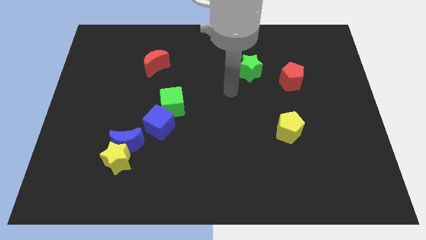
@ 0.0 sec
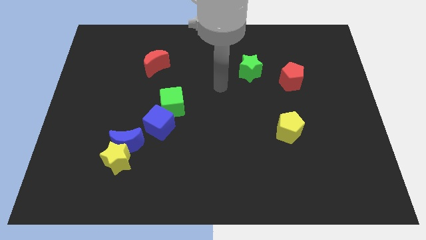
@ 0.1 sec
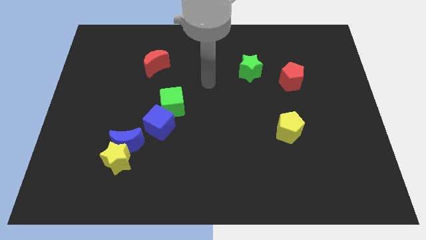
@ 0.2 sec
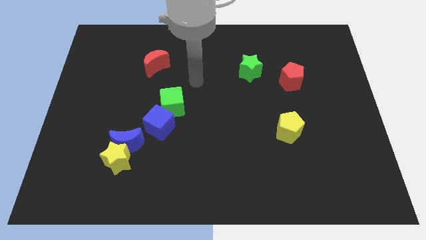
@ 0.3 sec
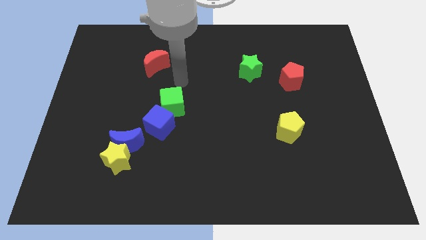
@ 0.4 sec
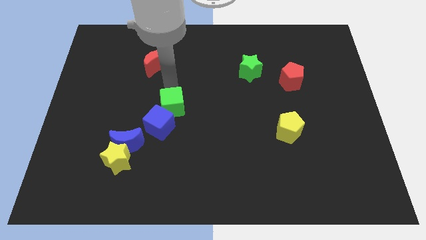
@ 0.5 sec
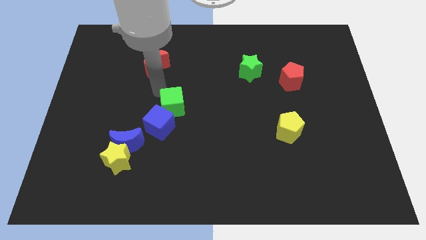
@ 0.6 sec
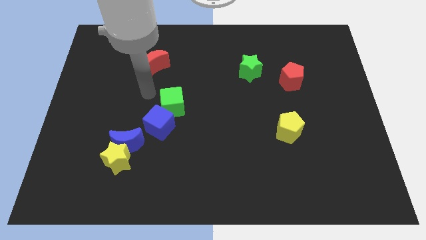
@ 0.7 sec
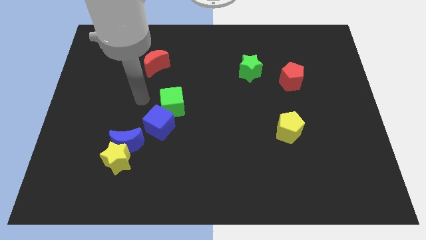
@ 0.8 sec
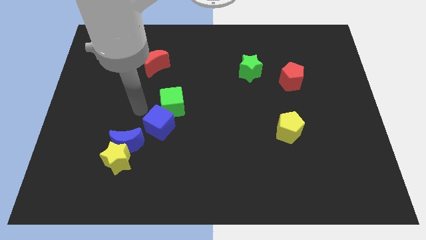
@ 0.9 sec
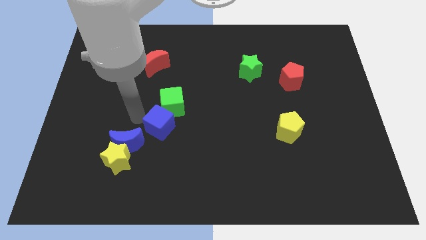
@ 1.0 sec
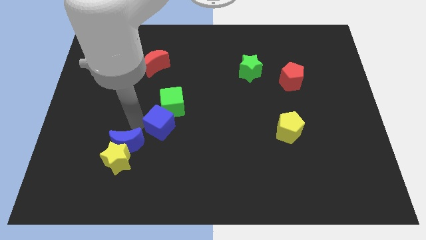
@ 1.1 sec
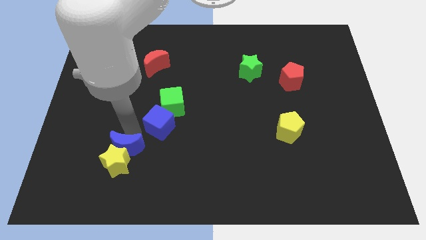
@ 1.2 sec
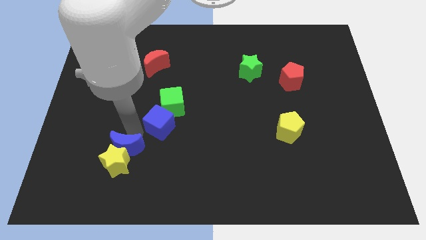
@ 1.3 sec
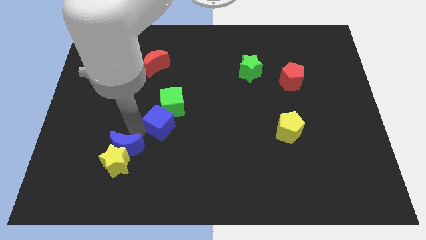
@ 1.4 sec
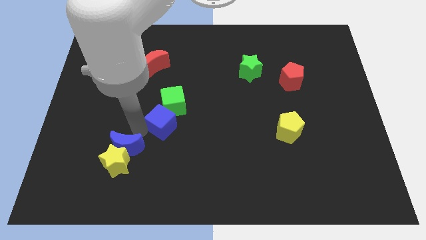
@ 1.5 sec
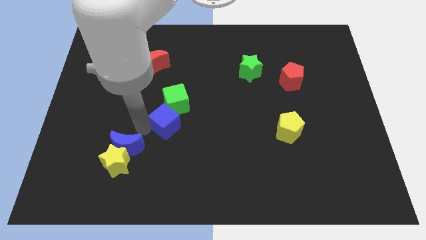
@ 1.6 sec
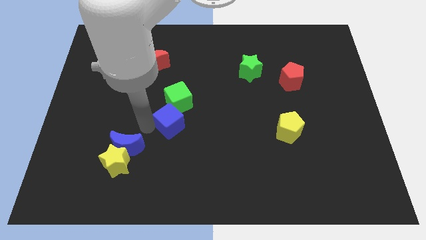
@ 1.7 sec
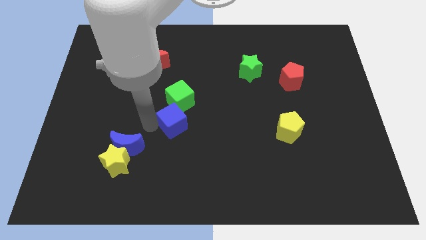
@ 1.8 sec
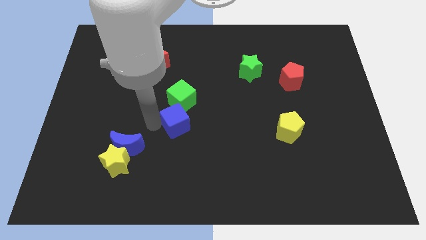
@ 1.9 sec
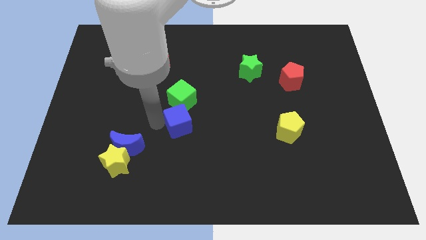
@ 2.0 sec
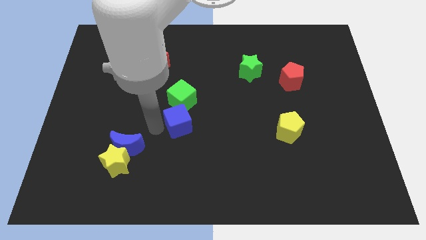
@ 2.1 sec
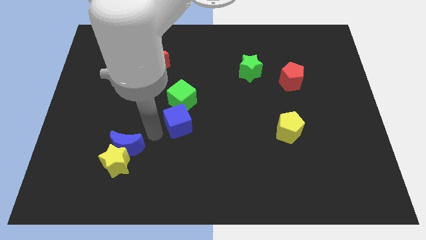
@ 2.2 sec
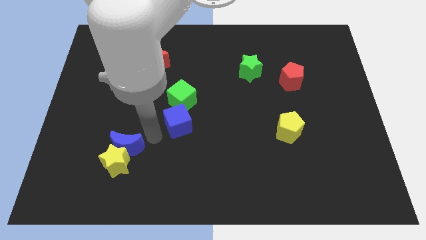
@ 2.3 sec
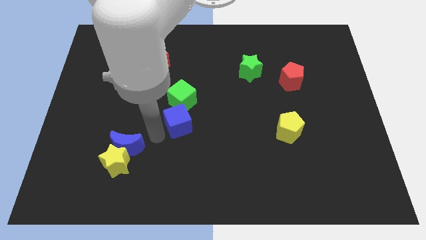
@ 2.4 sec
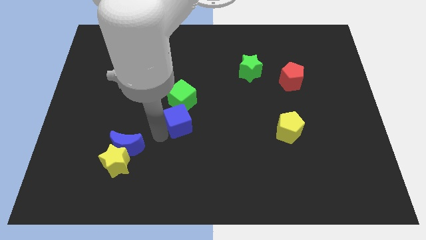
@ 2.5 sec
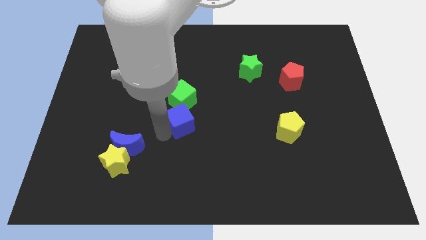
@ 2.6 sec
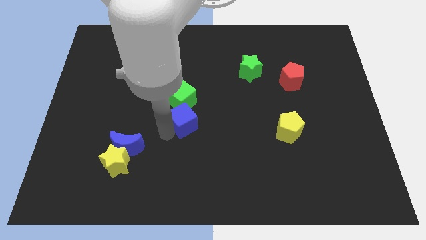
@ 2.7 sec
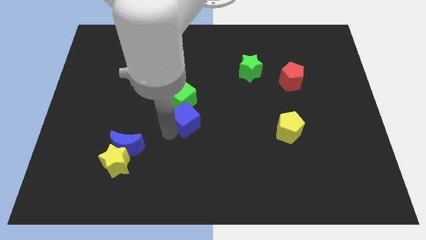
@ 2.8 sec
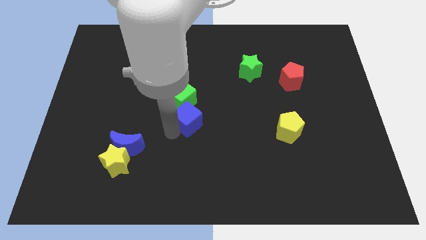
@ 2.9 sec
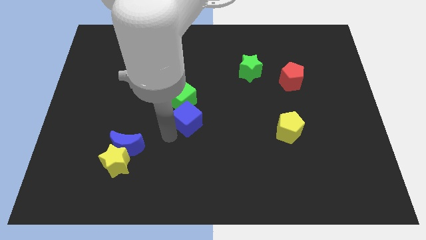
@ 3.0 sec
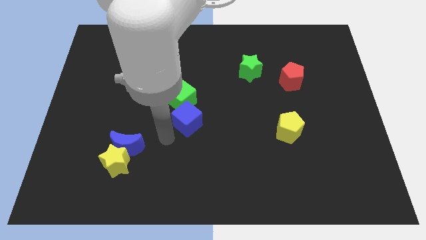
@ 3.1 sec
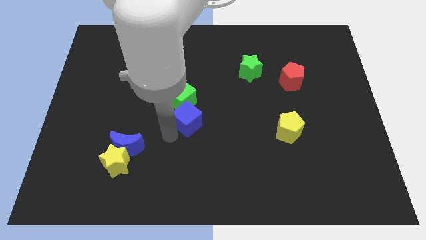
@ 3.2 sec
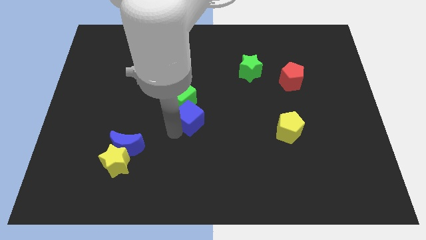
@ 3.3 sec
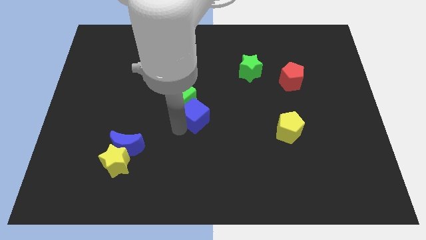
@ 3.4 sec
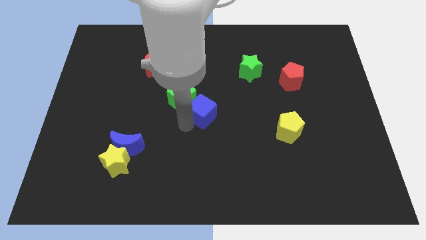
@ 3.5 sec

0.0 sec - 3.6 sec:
push the blue cube diagonally up and right a little bit

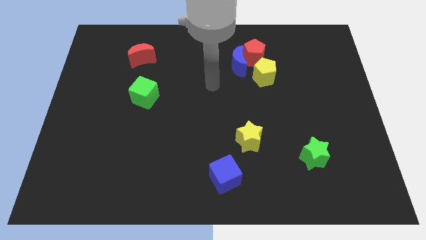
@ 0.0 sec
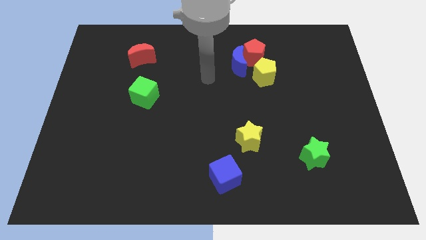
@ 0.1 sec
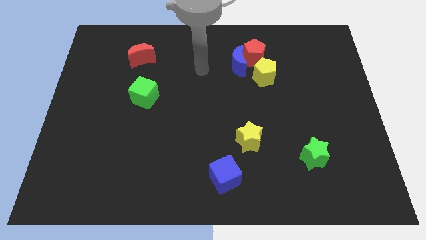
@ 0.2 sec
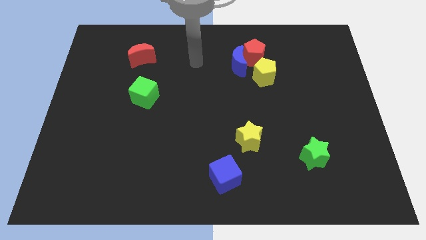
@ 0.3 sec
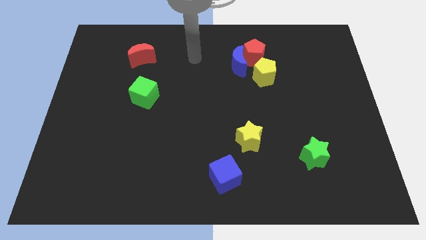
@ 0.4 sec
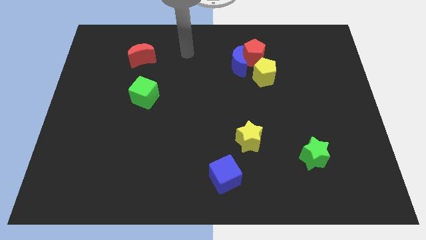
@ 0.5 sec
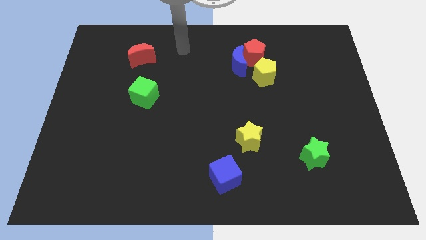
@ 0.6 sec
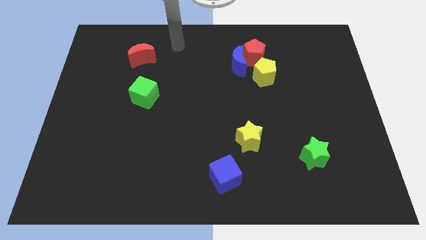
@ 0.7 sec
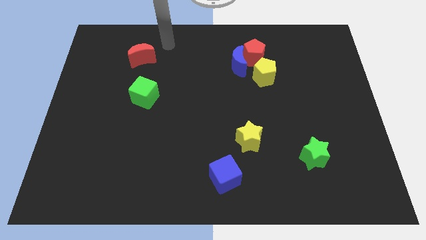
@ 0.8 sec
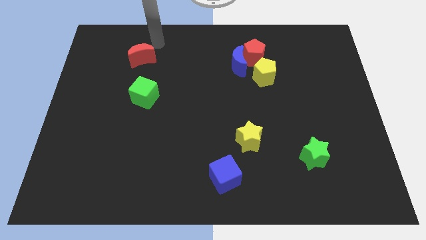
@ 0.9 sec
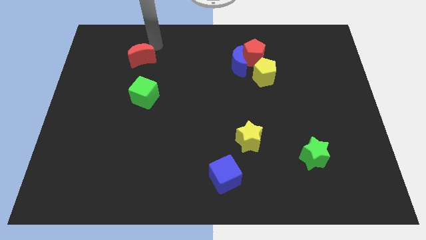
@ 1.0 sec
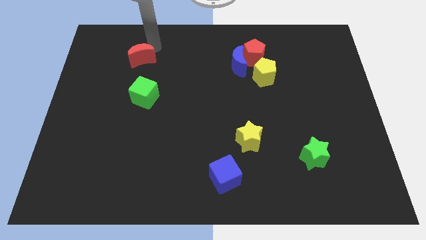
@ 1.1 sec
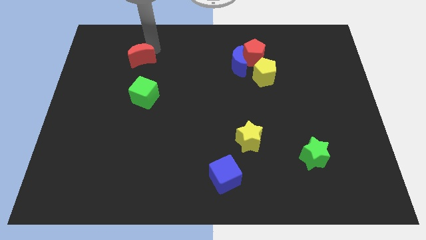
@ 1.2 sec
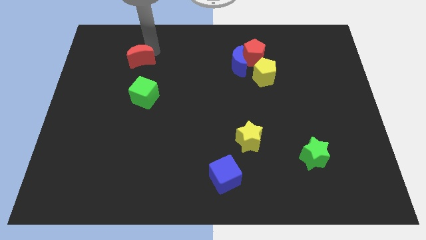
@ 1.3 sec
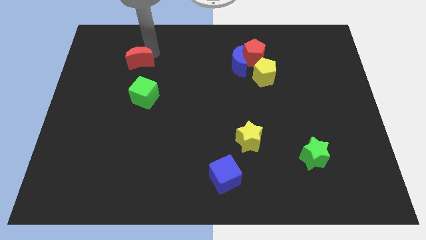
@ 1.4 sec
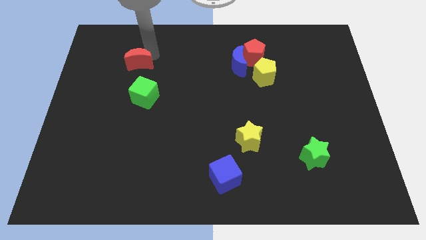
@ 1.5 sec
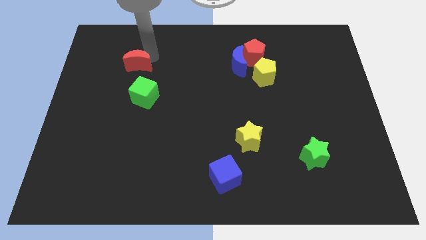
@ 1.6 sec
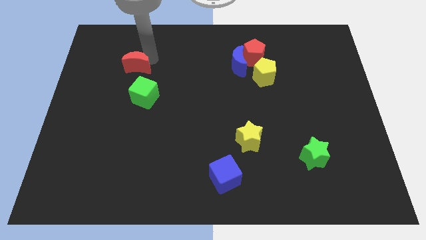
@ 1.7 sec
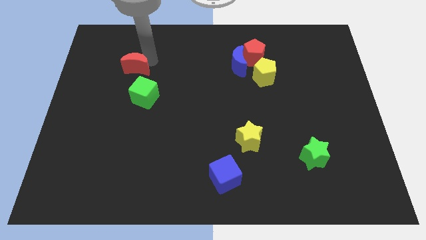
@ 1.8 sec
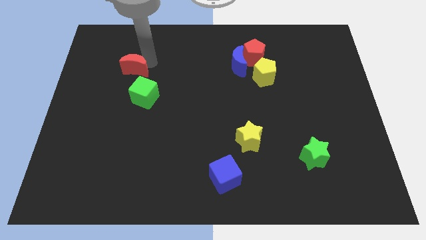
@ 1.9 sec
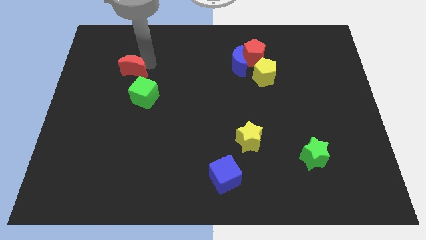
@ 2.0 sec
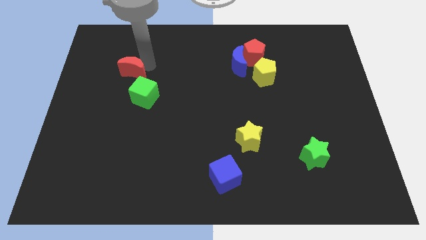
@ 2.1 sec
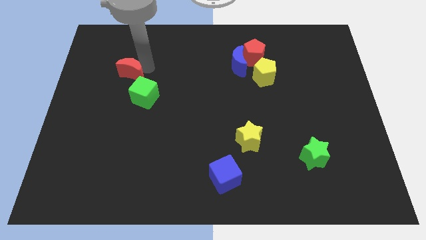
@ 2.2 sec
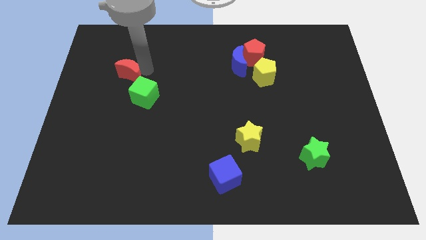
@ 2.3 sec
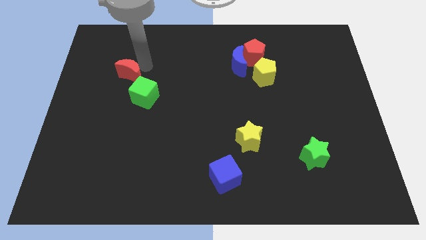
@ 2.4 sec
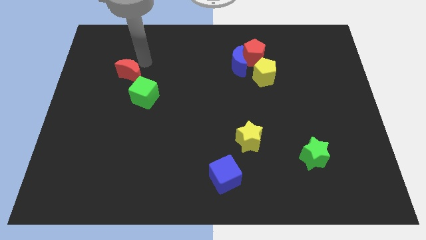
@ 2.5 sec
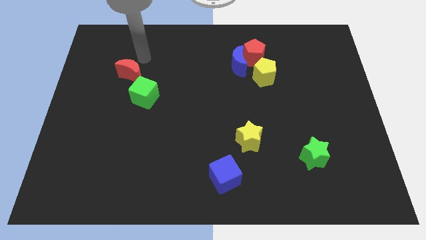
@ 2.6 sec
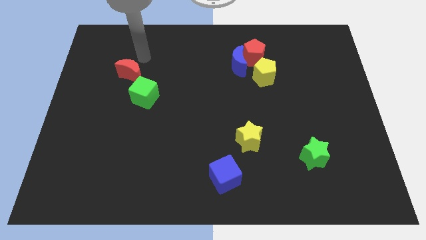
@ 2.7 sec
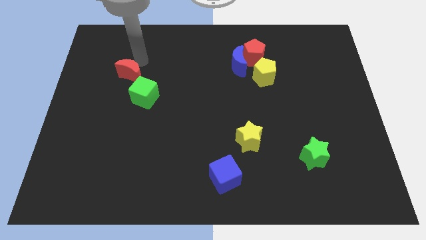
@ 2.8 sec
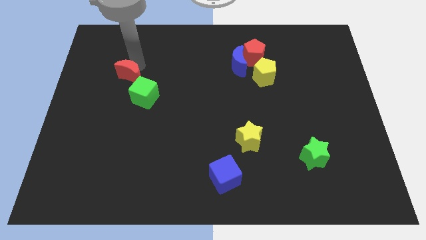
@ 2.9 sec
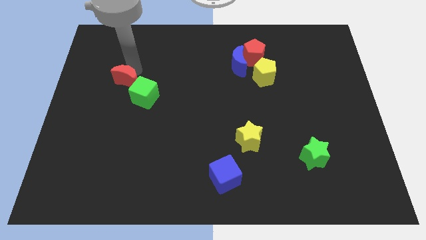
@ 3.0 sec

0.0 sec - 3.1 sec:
slightly move the red moon down

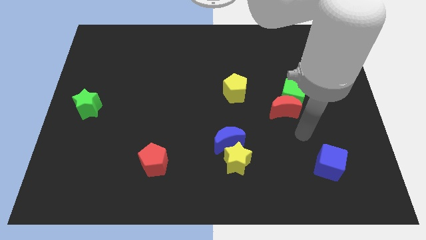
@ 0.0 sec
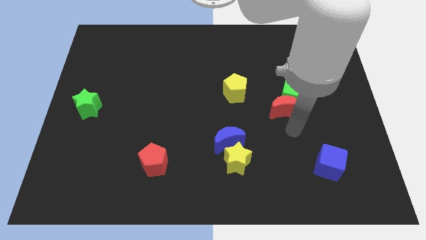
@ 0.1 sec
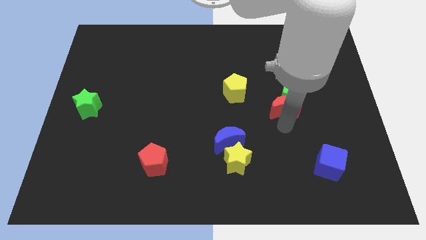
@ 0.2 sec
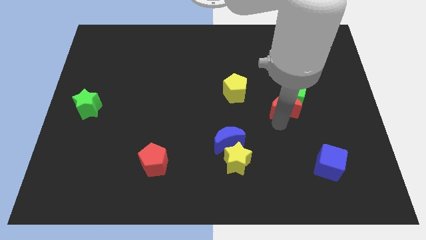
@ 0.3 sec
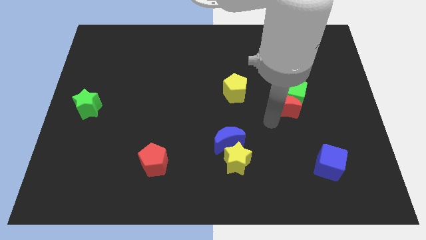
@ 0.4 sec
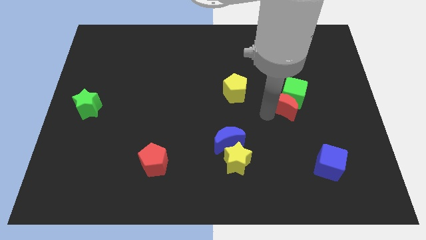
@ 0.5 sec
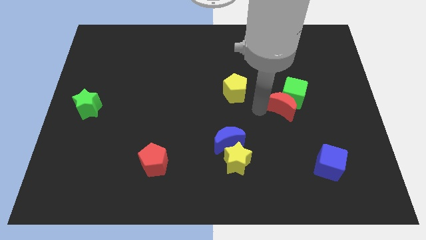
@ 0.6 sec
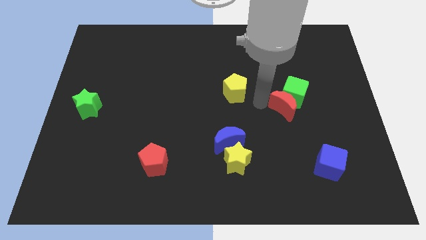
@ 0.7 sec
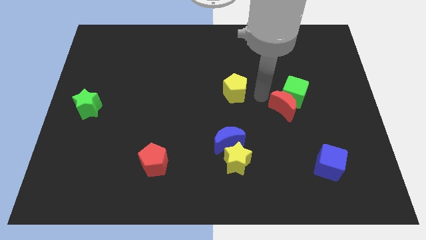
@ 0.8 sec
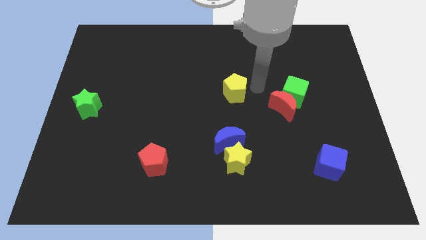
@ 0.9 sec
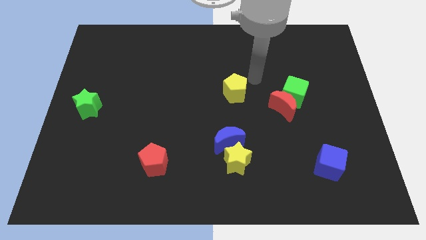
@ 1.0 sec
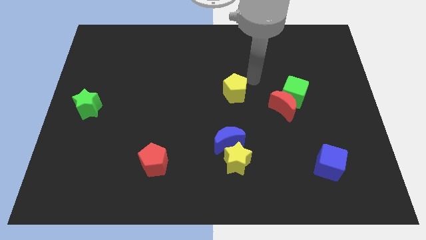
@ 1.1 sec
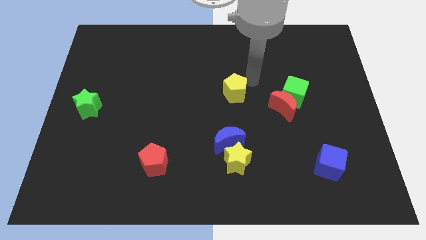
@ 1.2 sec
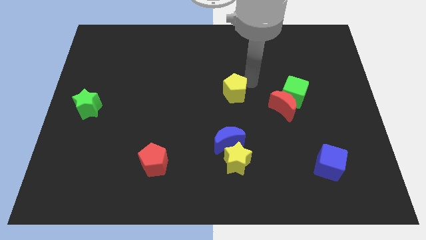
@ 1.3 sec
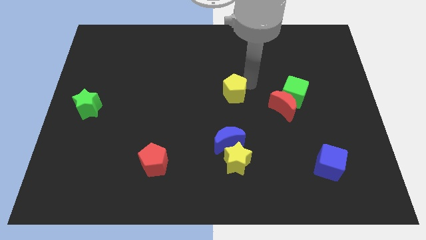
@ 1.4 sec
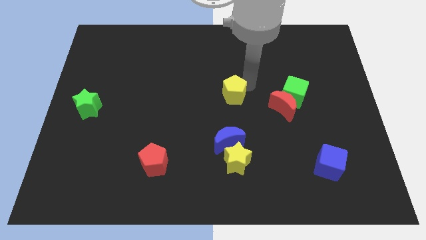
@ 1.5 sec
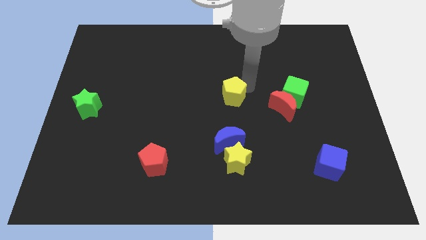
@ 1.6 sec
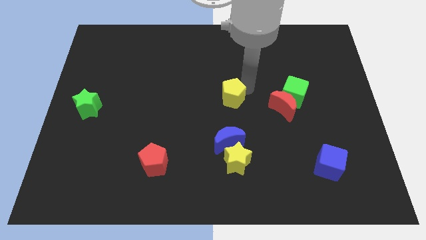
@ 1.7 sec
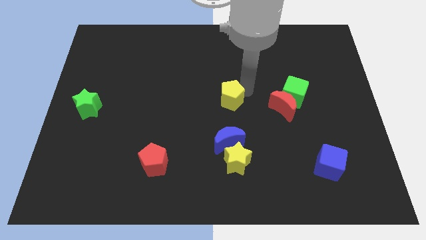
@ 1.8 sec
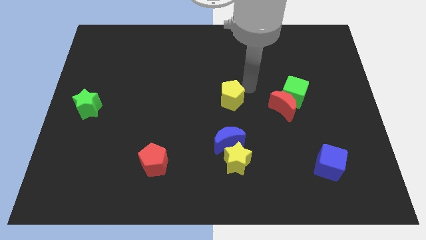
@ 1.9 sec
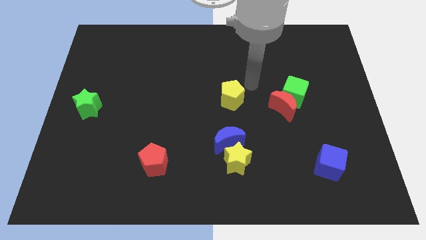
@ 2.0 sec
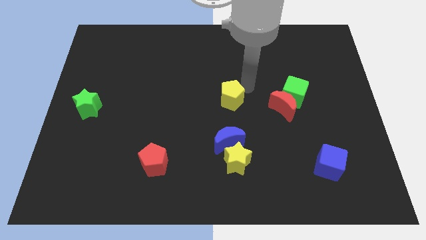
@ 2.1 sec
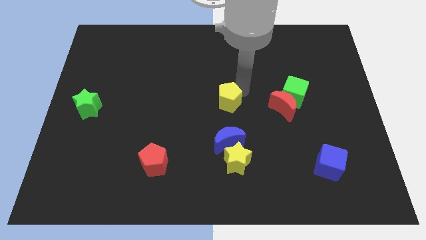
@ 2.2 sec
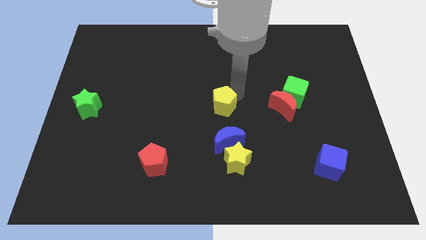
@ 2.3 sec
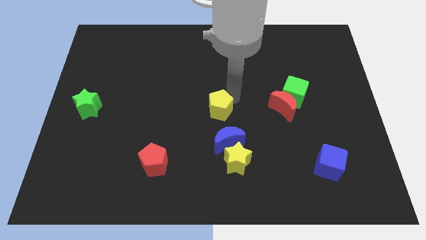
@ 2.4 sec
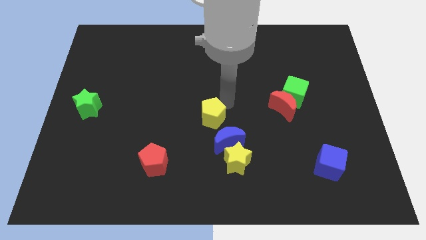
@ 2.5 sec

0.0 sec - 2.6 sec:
move the yellow pentagon diagonally down and to the left a bit
